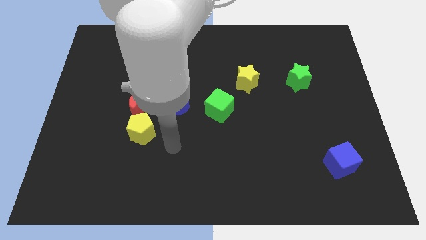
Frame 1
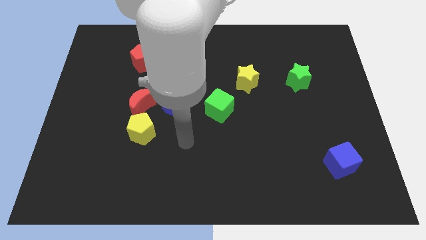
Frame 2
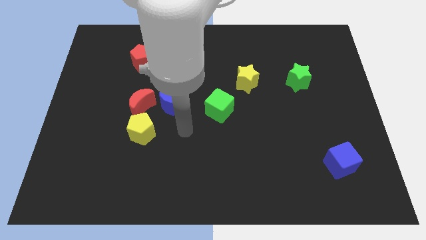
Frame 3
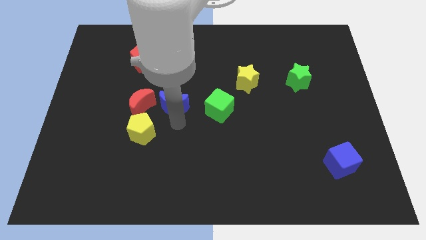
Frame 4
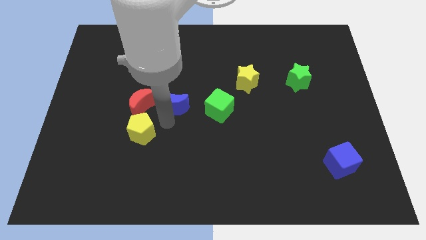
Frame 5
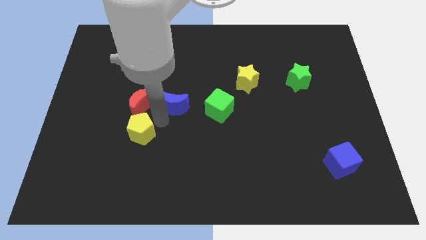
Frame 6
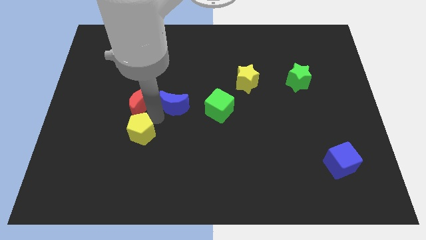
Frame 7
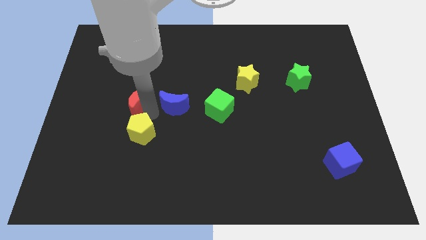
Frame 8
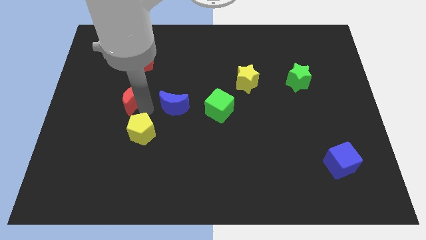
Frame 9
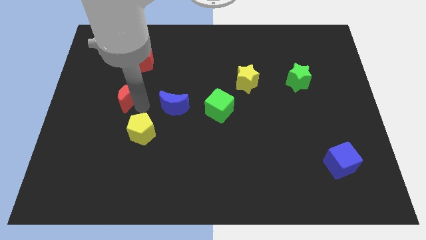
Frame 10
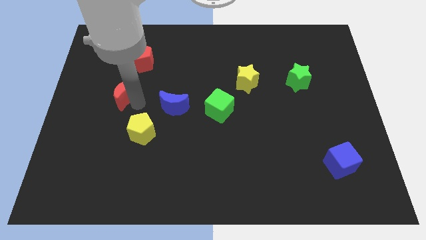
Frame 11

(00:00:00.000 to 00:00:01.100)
move the red moon away from the yellow pentagon and blue moon

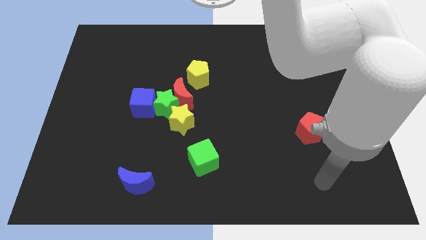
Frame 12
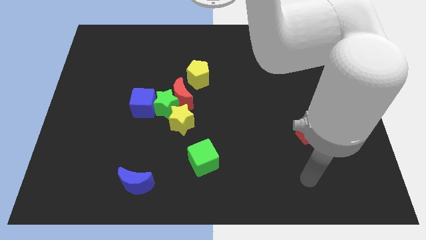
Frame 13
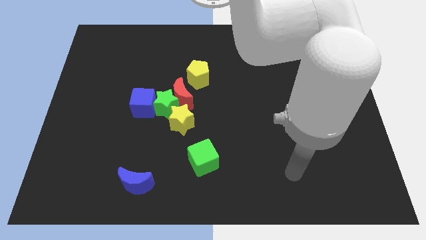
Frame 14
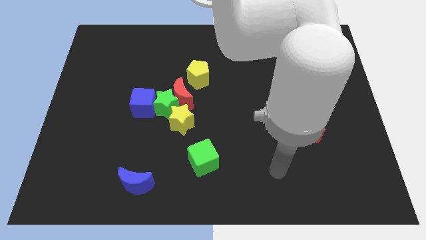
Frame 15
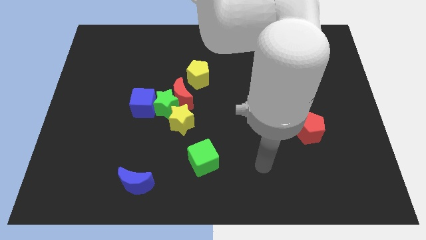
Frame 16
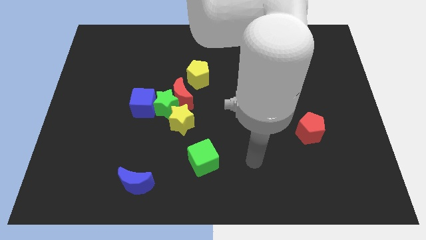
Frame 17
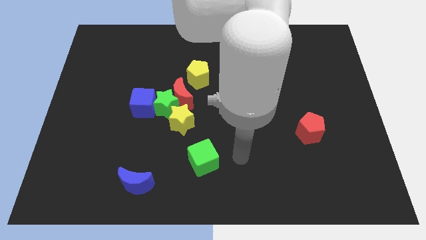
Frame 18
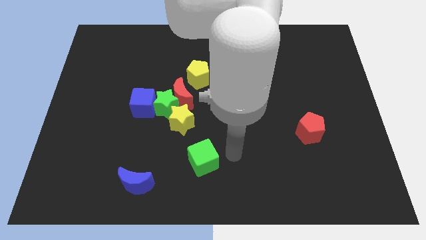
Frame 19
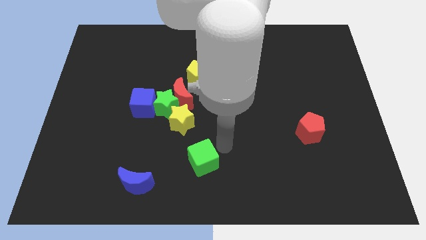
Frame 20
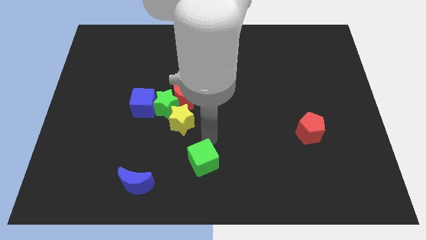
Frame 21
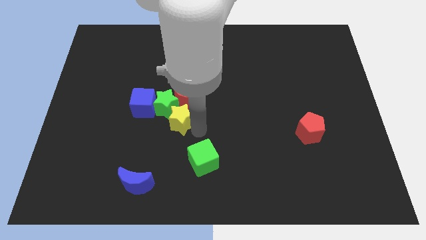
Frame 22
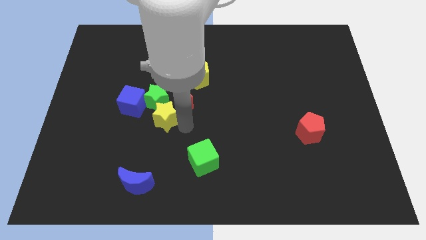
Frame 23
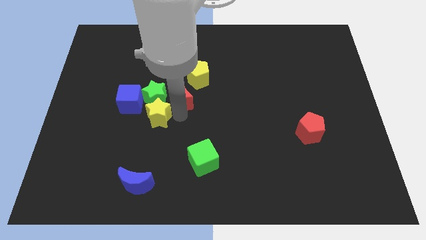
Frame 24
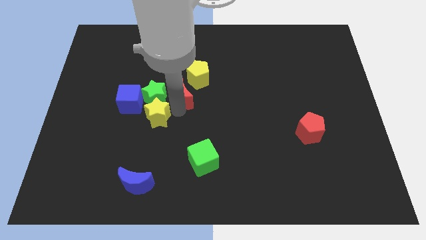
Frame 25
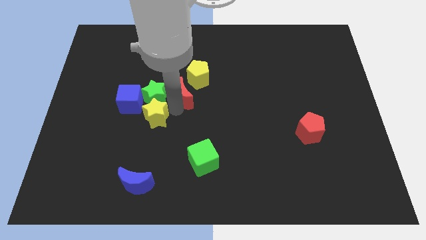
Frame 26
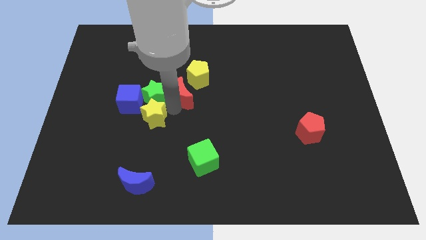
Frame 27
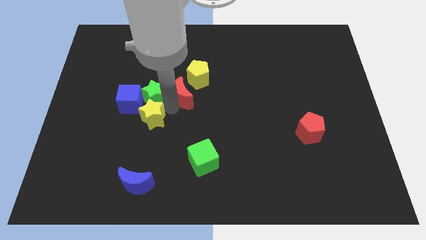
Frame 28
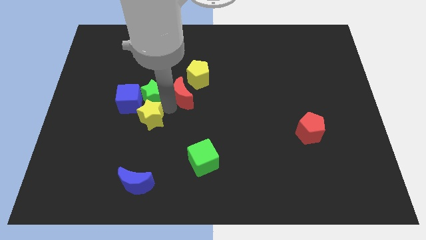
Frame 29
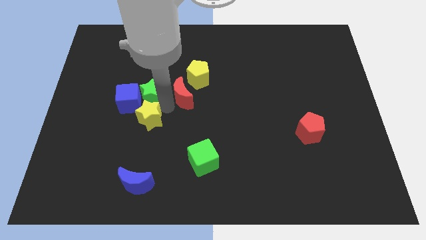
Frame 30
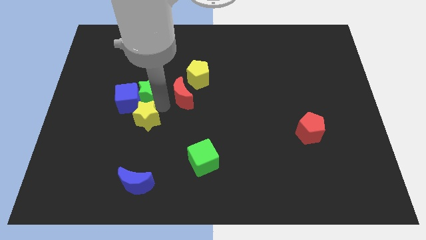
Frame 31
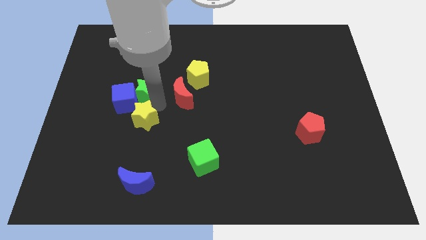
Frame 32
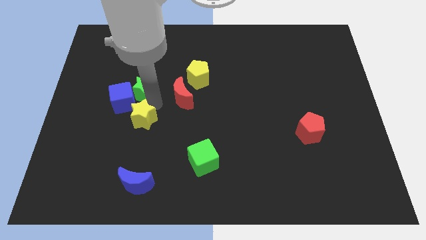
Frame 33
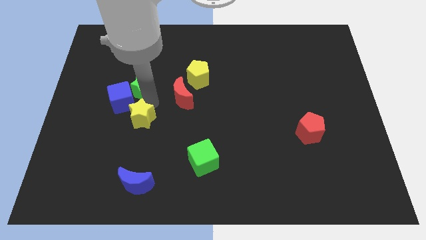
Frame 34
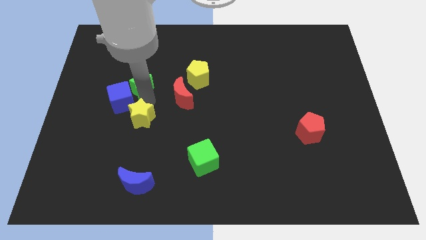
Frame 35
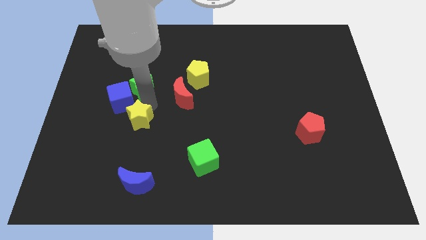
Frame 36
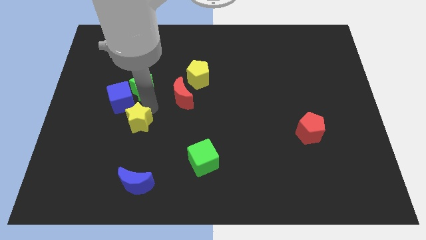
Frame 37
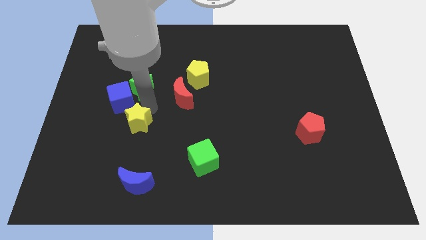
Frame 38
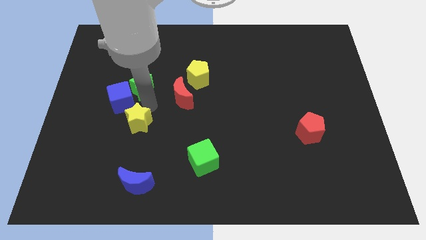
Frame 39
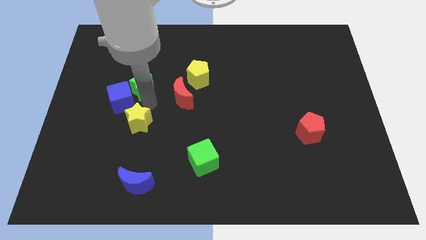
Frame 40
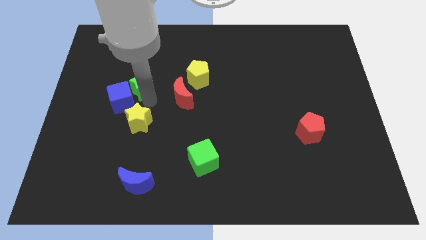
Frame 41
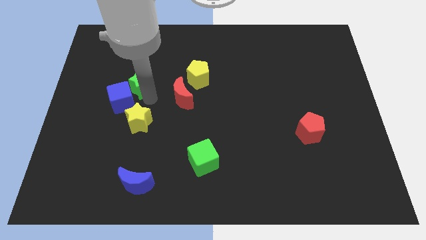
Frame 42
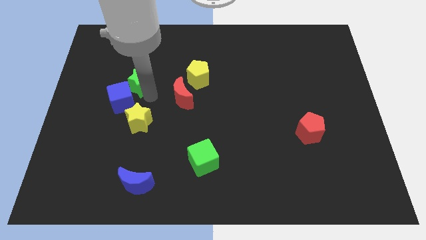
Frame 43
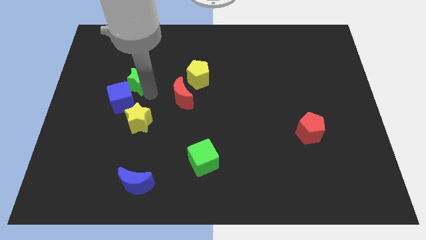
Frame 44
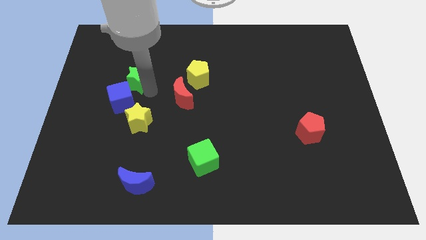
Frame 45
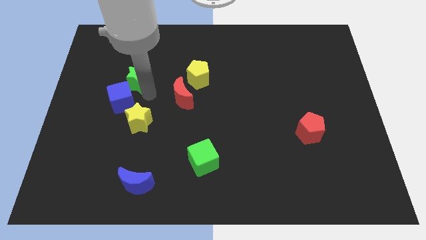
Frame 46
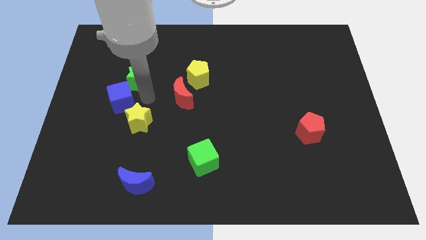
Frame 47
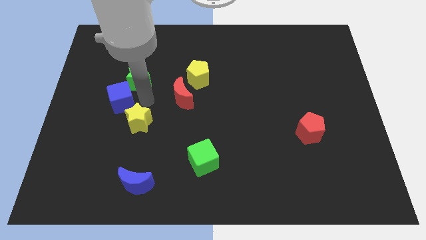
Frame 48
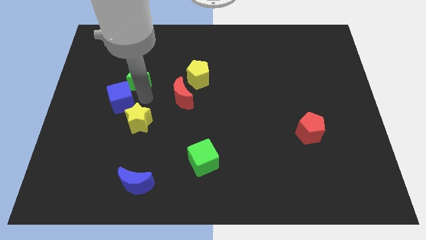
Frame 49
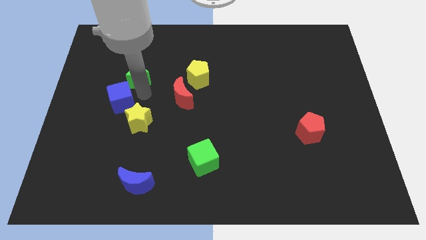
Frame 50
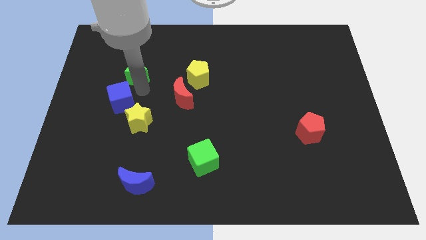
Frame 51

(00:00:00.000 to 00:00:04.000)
pull the green star apart from the red moon, blue cube, and yellow star

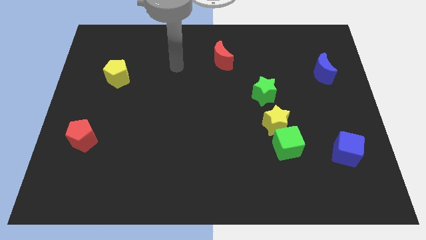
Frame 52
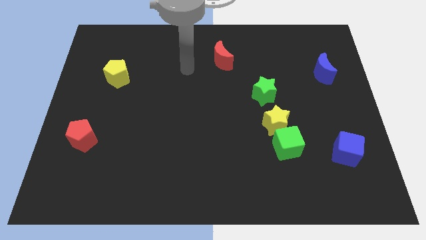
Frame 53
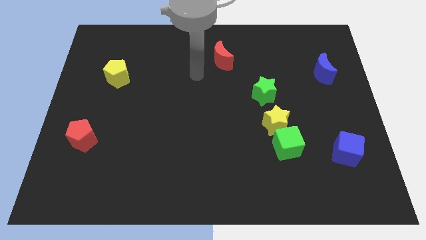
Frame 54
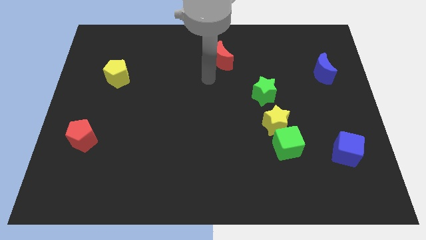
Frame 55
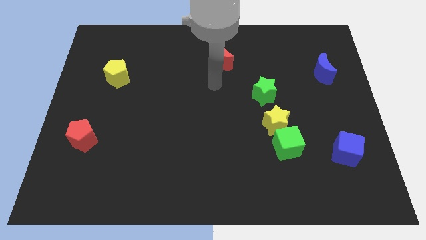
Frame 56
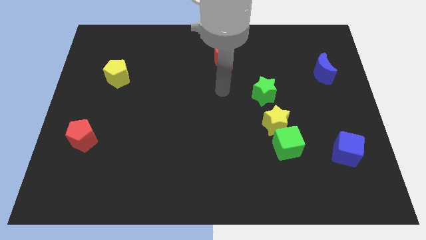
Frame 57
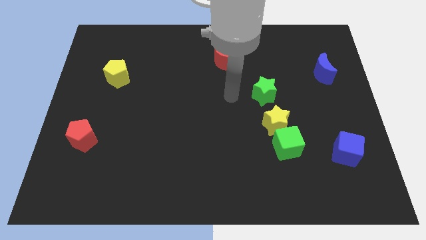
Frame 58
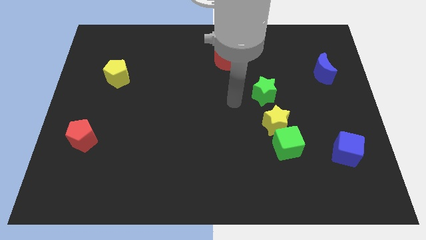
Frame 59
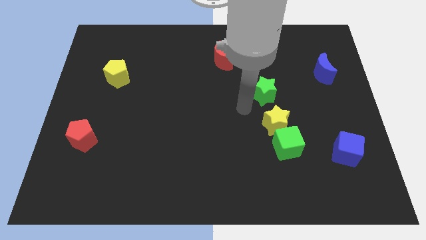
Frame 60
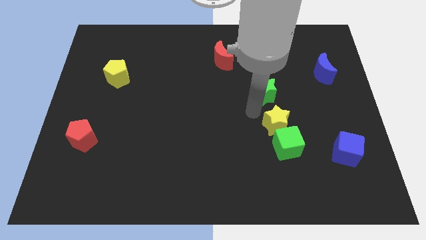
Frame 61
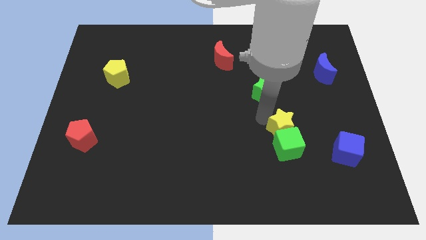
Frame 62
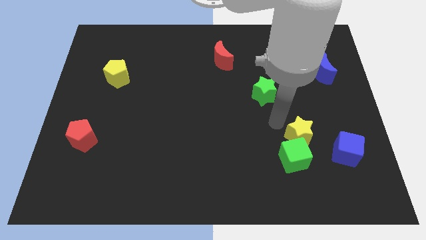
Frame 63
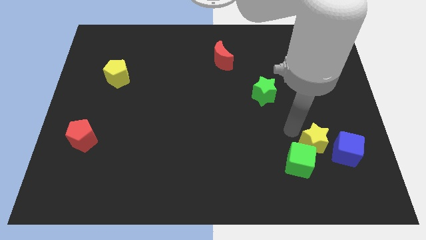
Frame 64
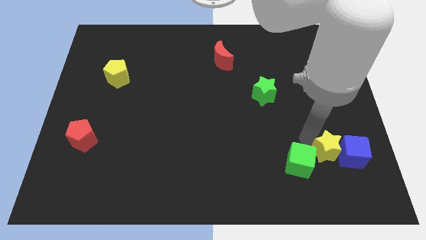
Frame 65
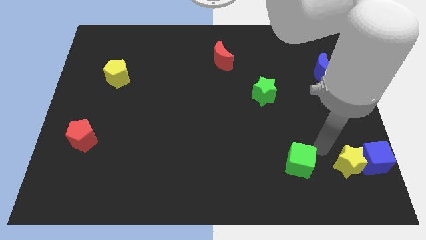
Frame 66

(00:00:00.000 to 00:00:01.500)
pull the green cube apart from the yellow star

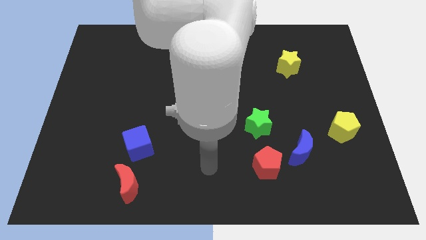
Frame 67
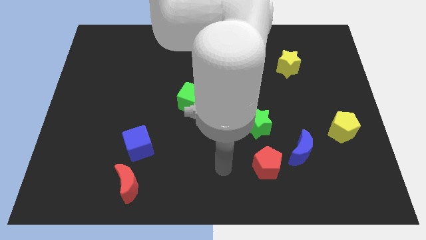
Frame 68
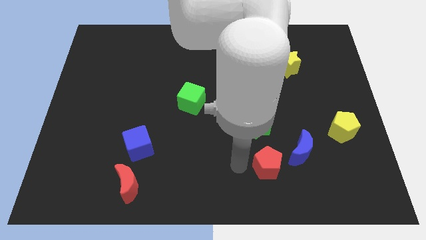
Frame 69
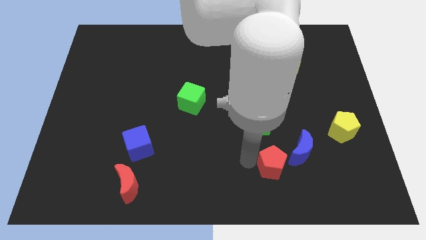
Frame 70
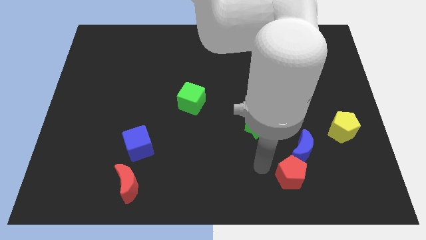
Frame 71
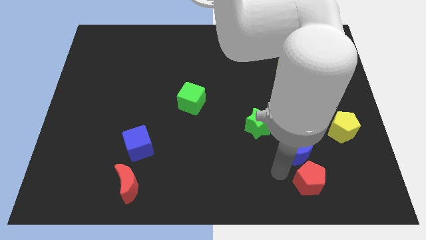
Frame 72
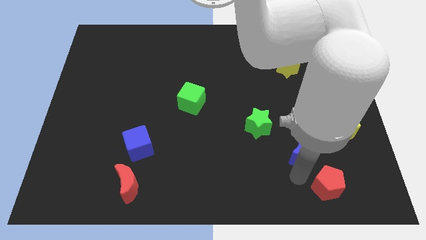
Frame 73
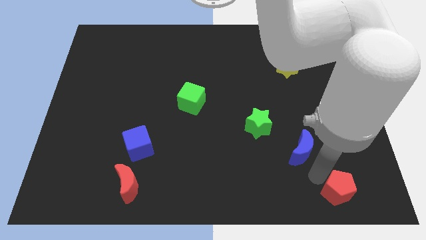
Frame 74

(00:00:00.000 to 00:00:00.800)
separate the blue moon from the red pentagon

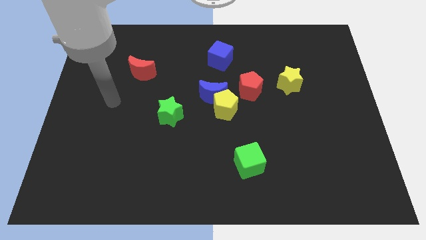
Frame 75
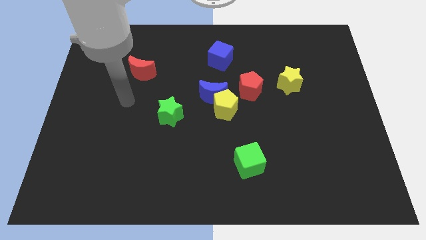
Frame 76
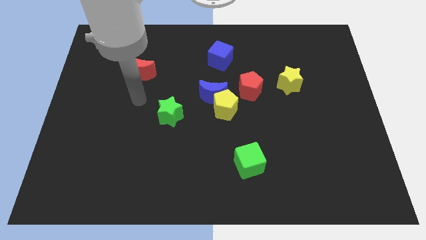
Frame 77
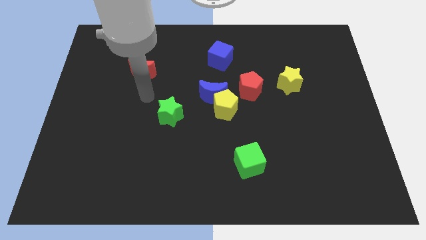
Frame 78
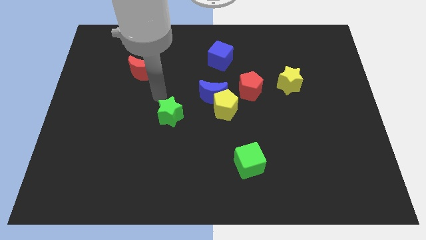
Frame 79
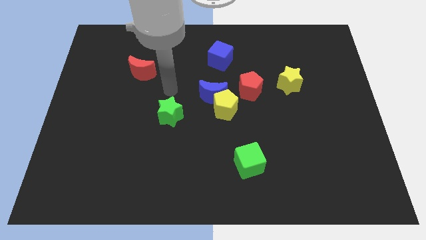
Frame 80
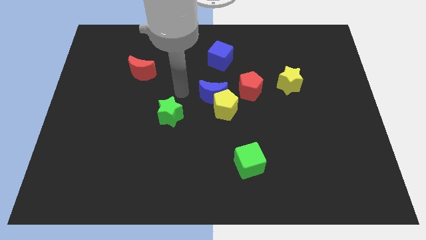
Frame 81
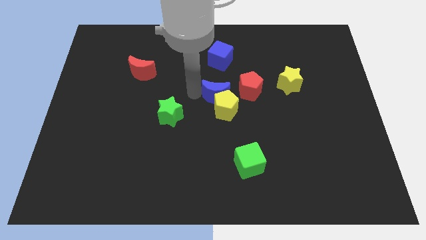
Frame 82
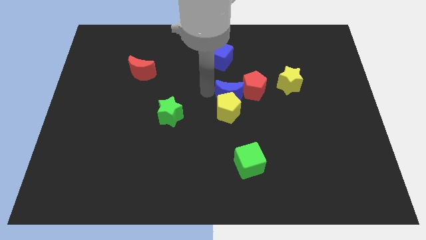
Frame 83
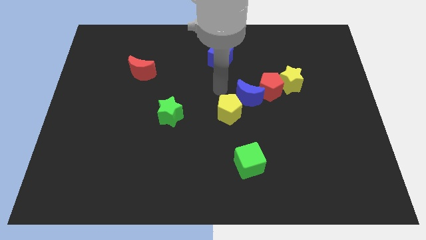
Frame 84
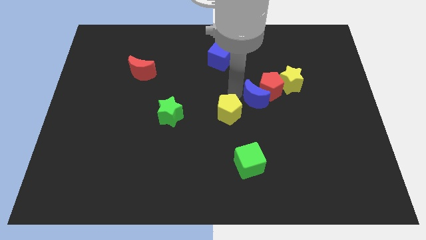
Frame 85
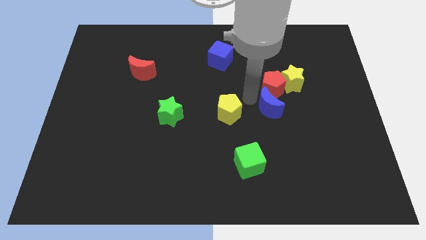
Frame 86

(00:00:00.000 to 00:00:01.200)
move the yellow pentagon away from the blue moon and red pentagon

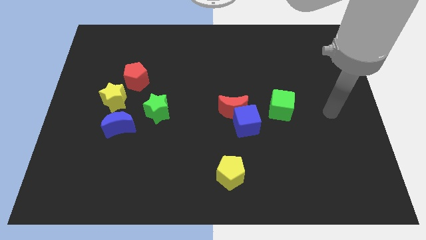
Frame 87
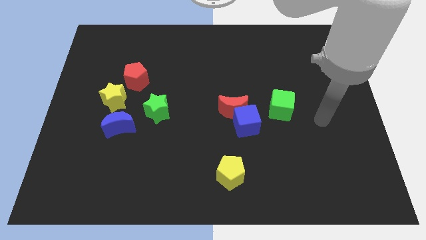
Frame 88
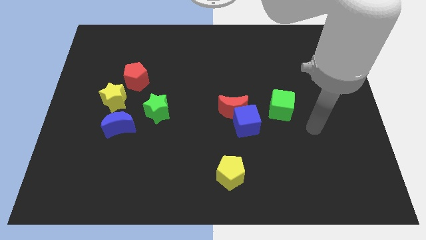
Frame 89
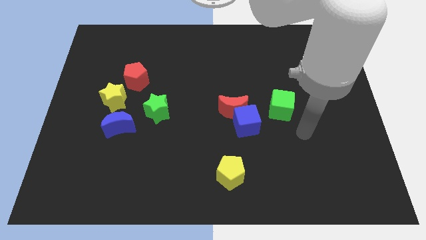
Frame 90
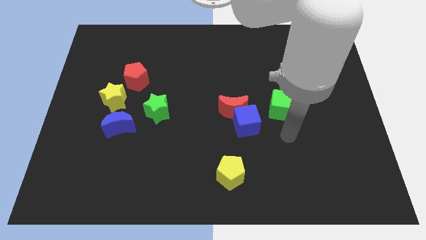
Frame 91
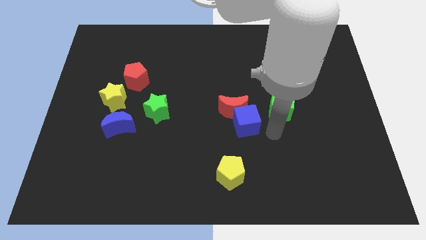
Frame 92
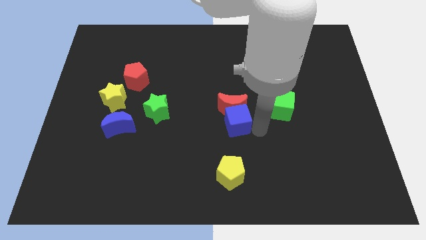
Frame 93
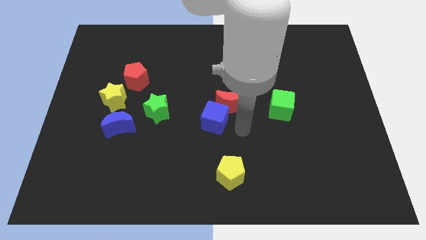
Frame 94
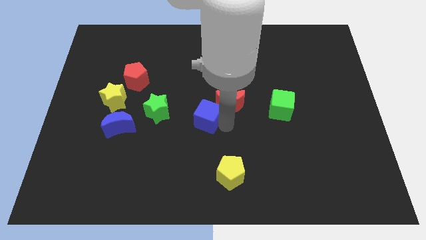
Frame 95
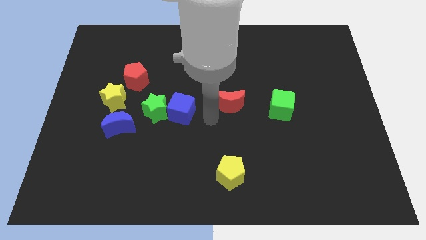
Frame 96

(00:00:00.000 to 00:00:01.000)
move the red moon away from the blue cube
